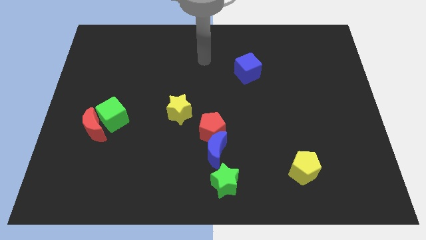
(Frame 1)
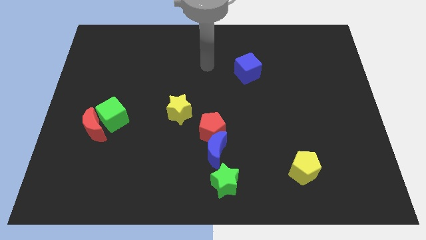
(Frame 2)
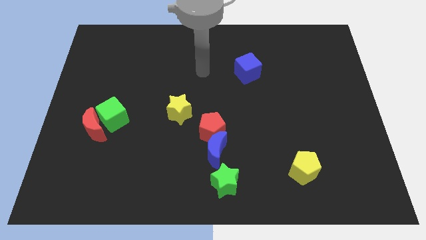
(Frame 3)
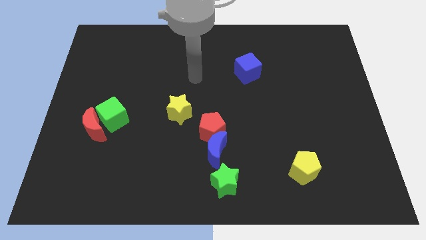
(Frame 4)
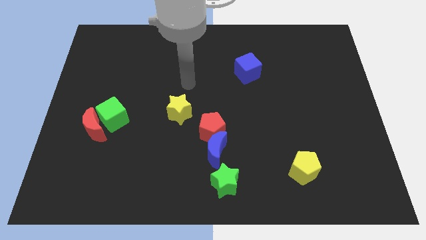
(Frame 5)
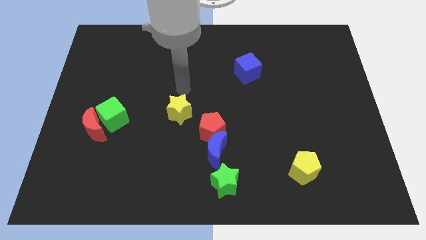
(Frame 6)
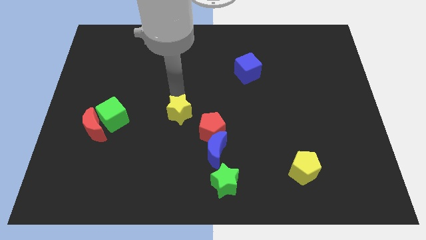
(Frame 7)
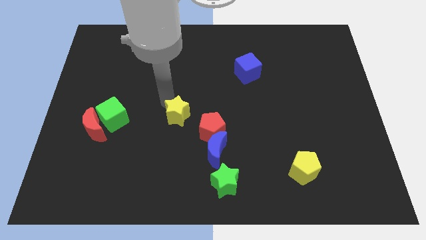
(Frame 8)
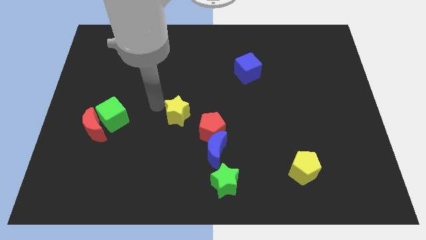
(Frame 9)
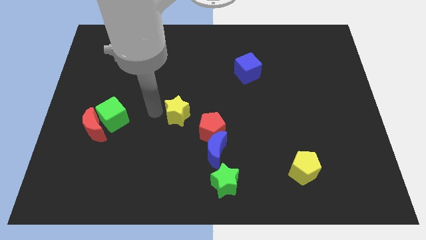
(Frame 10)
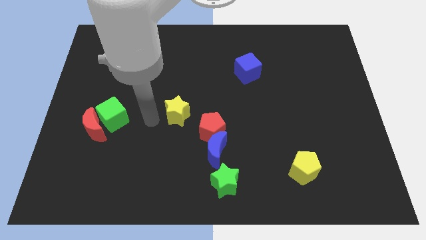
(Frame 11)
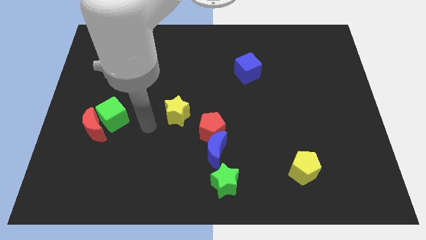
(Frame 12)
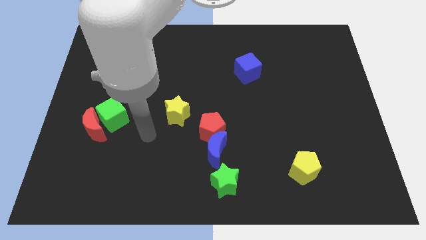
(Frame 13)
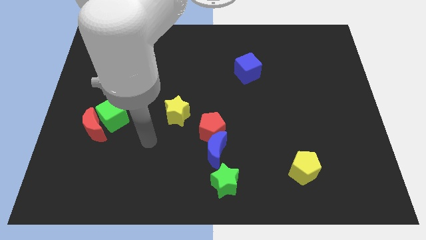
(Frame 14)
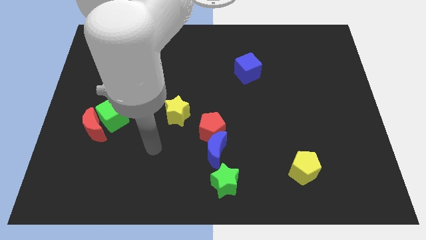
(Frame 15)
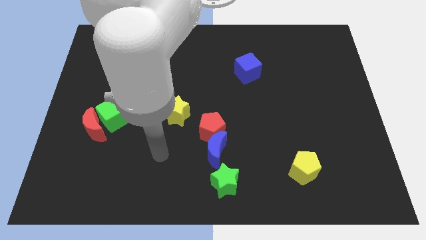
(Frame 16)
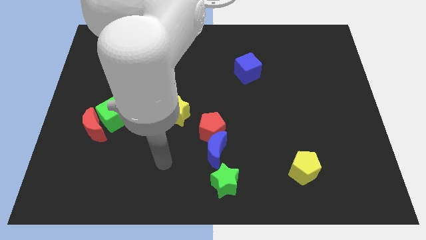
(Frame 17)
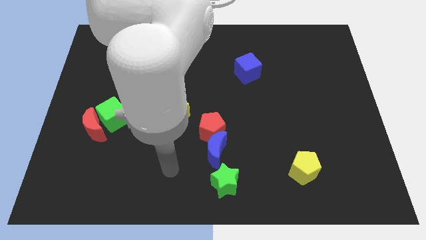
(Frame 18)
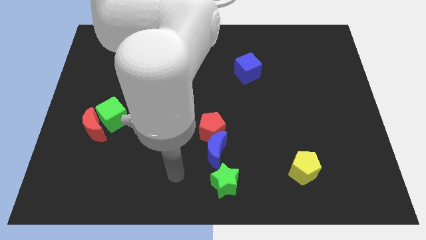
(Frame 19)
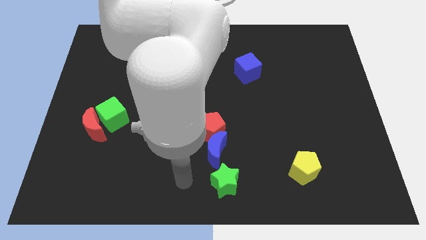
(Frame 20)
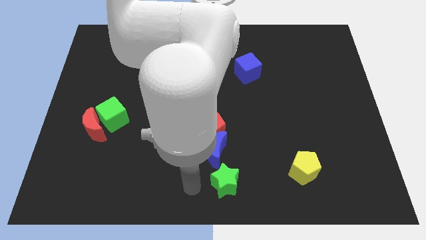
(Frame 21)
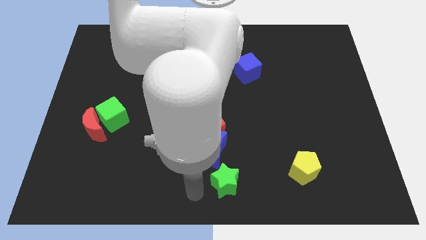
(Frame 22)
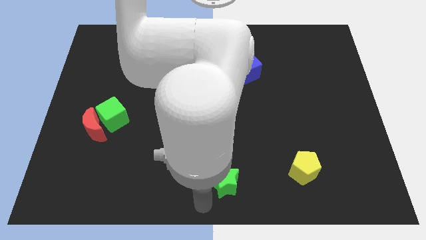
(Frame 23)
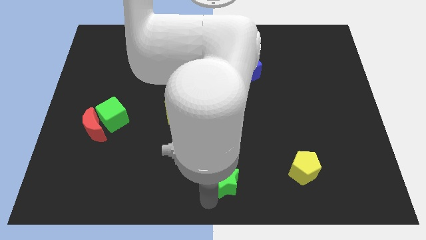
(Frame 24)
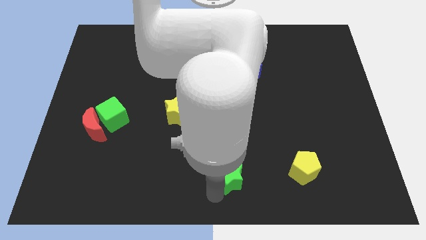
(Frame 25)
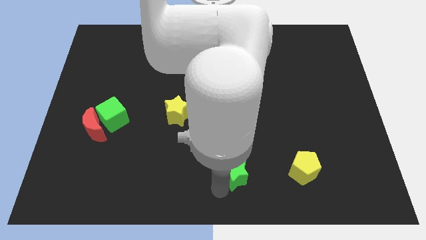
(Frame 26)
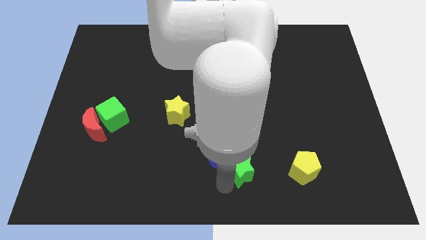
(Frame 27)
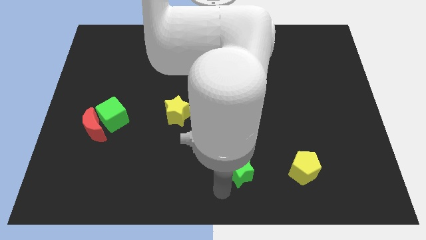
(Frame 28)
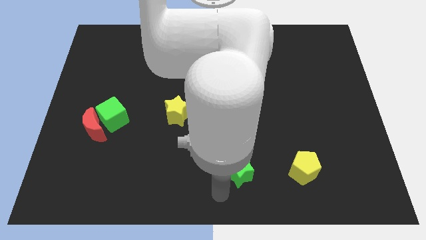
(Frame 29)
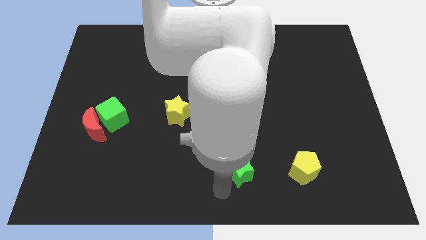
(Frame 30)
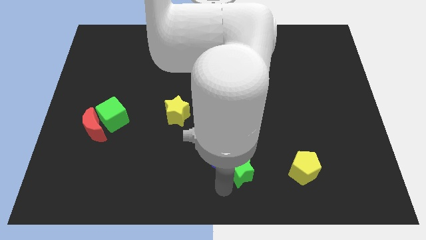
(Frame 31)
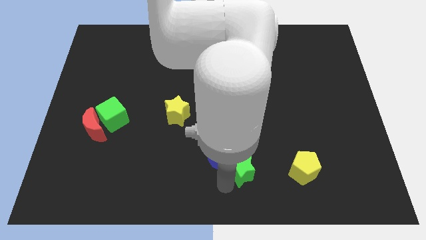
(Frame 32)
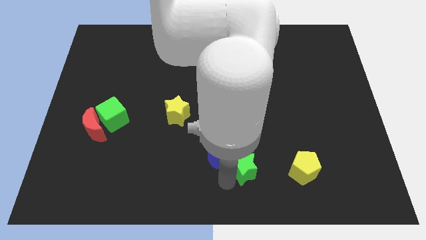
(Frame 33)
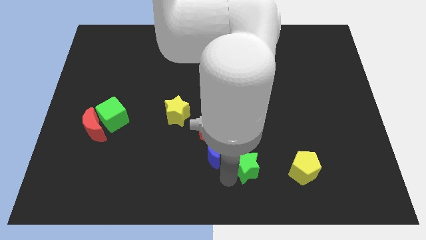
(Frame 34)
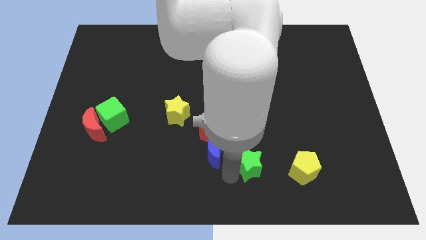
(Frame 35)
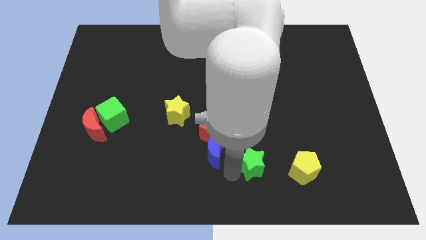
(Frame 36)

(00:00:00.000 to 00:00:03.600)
slightly push the green star upwards and then right

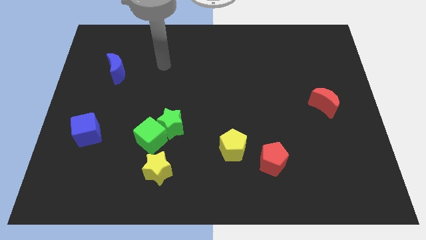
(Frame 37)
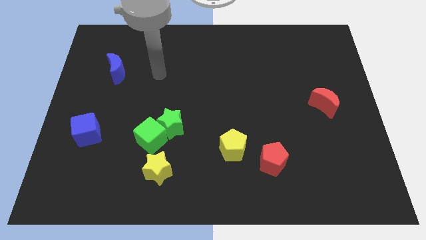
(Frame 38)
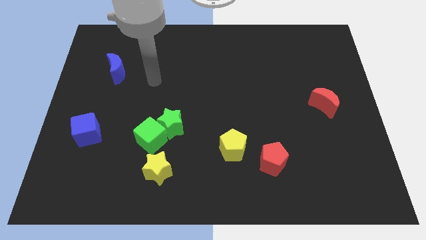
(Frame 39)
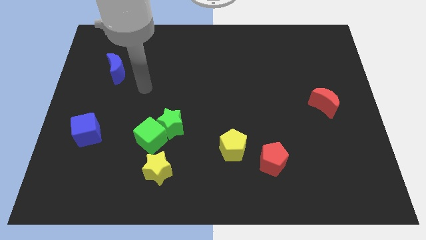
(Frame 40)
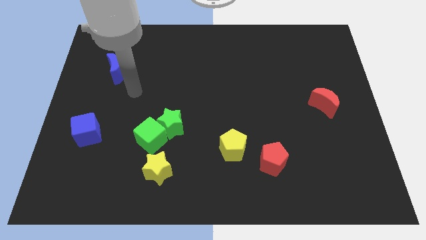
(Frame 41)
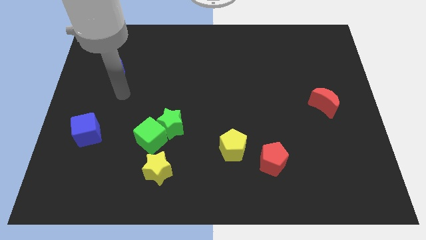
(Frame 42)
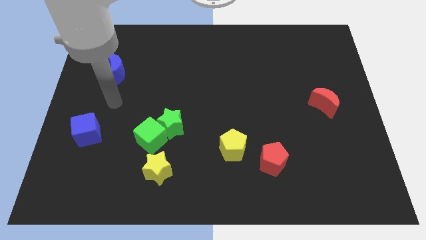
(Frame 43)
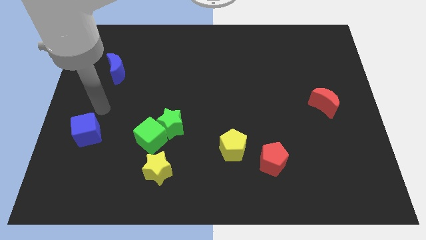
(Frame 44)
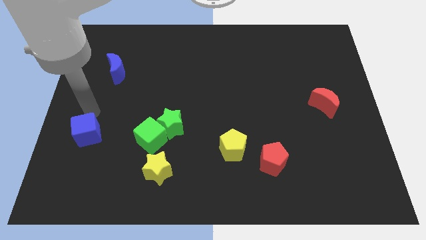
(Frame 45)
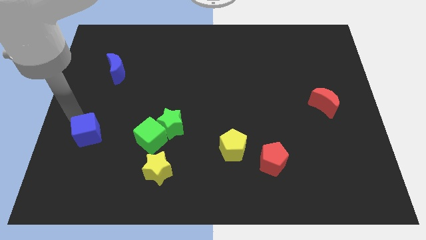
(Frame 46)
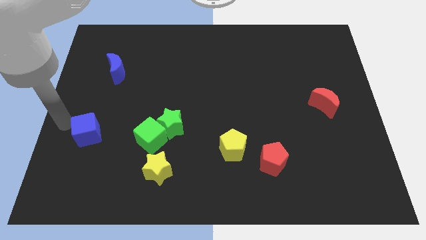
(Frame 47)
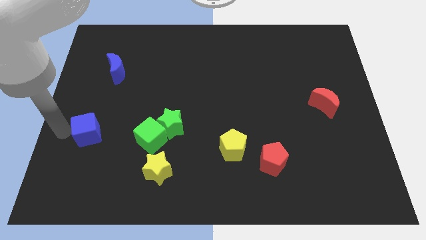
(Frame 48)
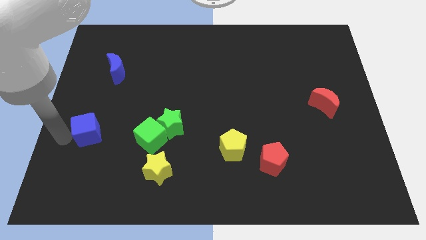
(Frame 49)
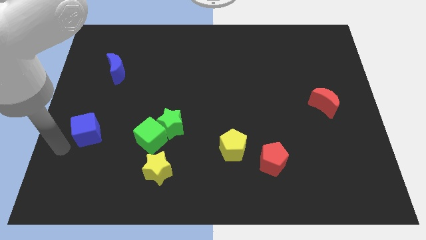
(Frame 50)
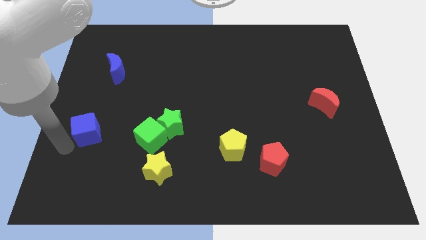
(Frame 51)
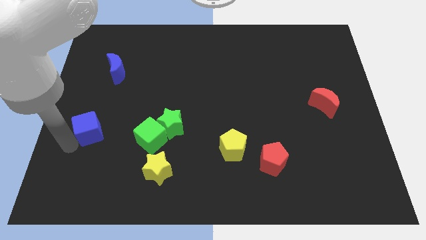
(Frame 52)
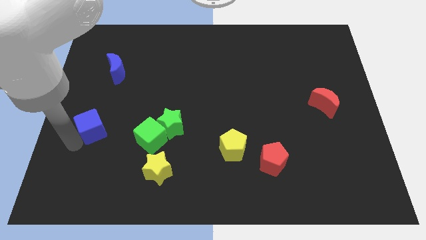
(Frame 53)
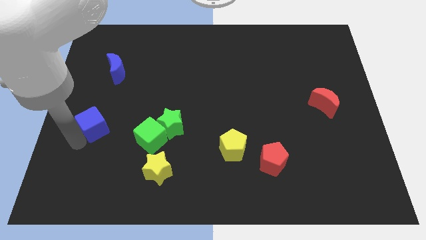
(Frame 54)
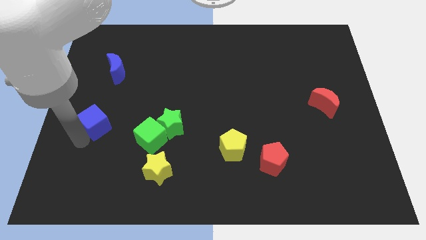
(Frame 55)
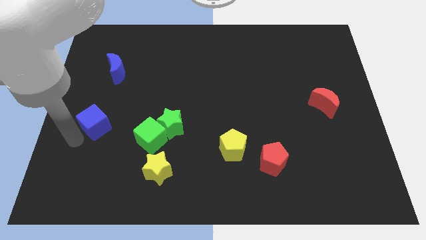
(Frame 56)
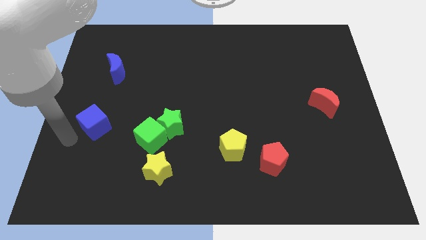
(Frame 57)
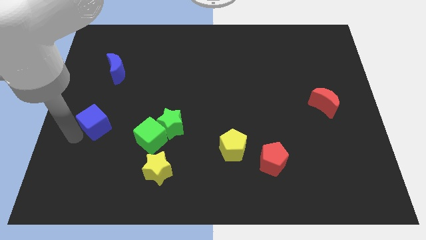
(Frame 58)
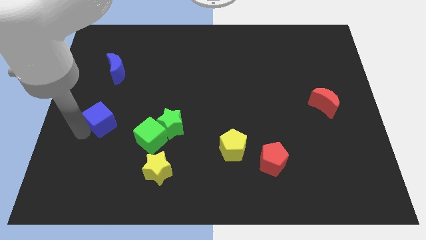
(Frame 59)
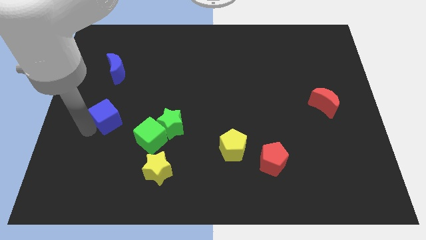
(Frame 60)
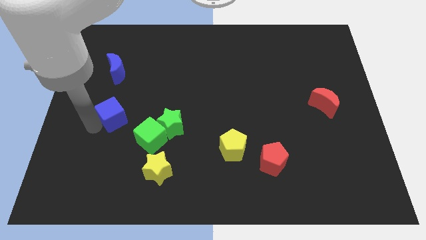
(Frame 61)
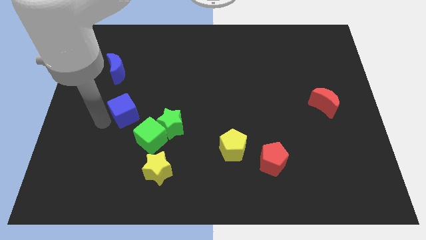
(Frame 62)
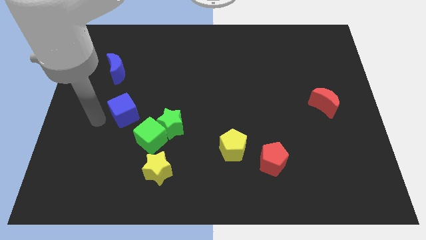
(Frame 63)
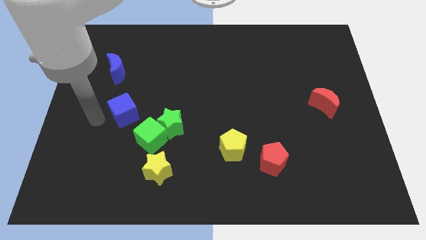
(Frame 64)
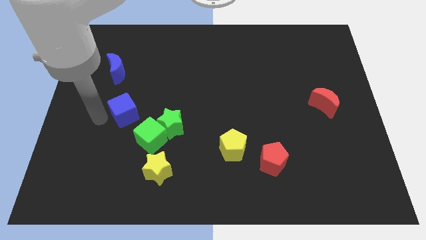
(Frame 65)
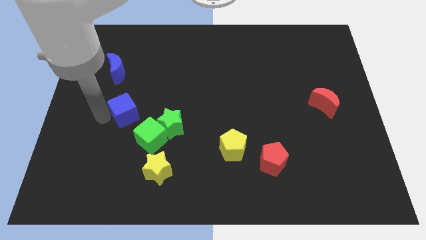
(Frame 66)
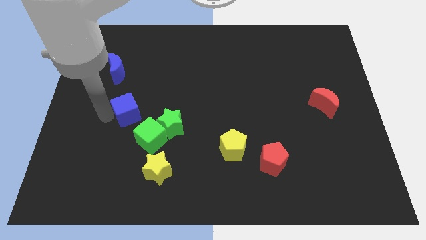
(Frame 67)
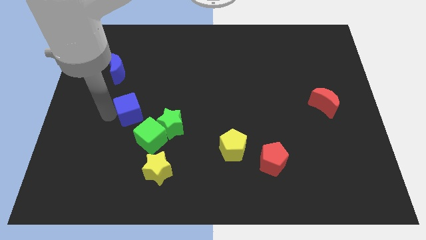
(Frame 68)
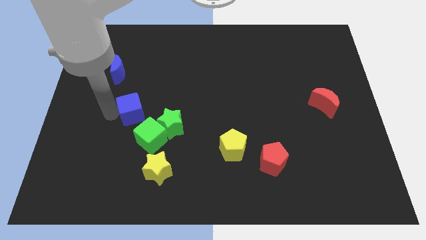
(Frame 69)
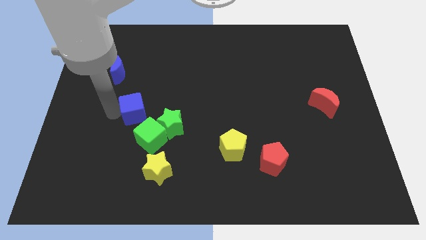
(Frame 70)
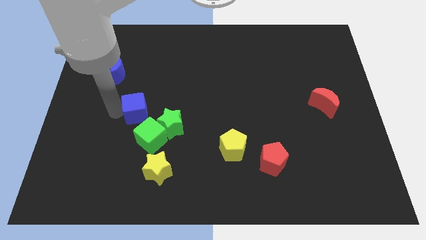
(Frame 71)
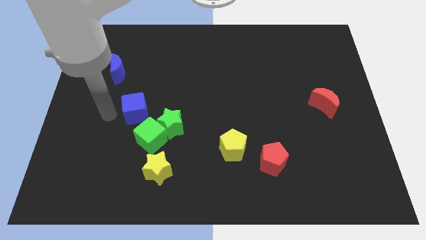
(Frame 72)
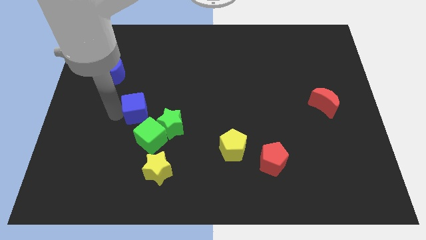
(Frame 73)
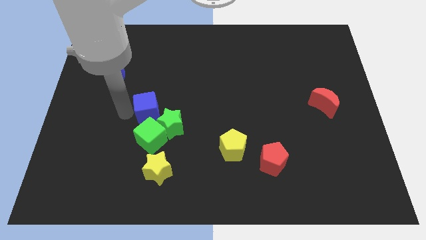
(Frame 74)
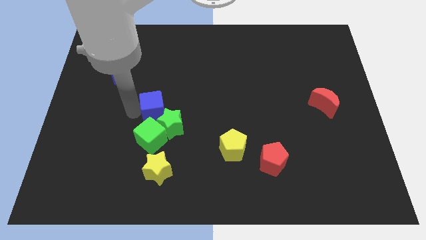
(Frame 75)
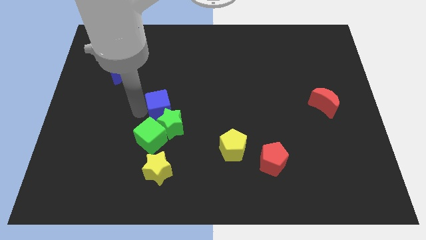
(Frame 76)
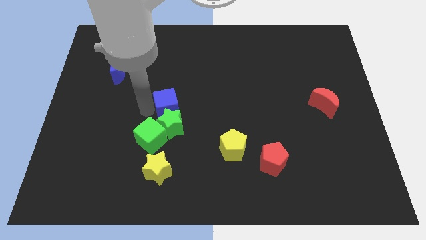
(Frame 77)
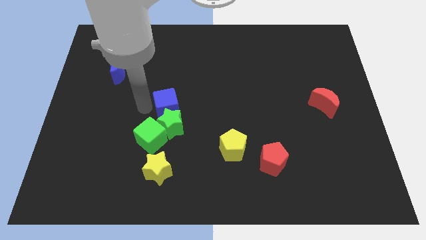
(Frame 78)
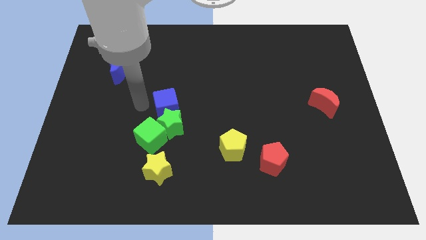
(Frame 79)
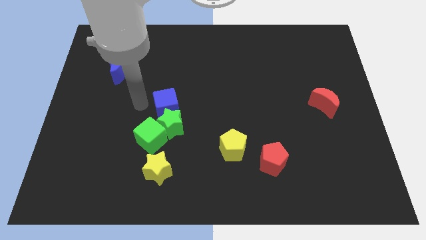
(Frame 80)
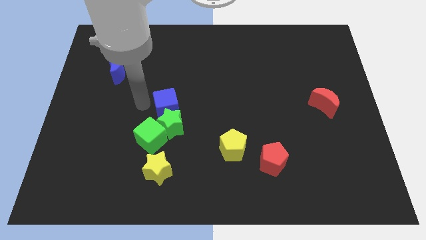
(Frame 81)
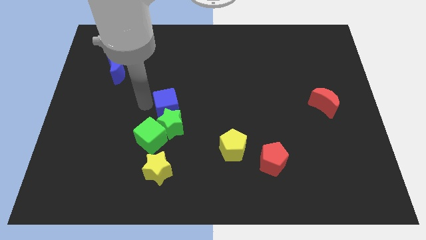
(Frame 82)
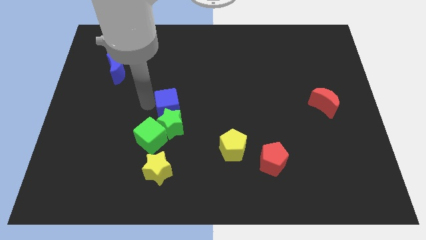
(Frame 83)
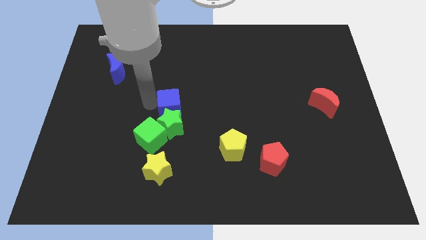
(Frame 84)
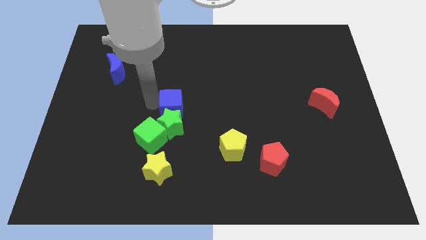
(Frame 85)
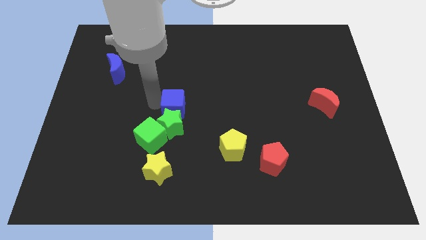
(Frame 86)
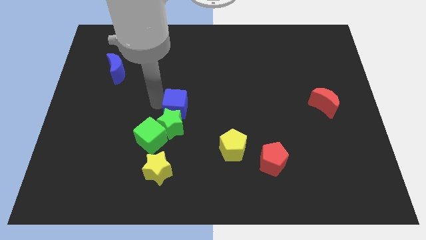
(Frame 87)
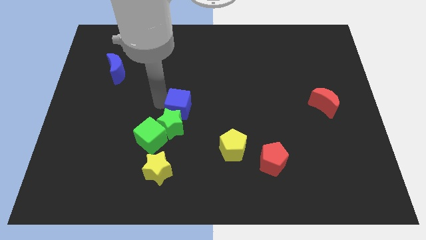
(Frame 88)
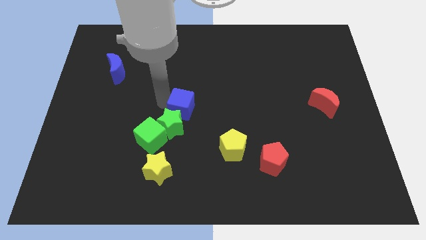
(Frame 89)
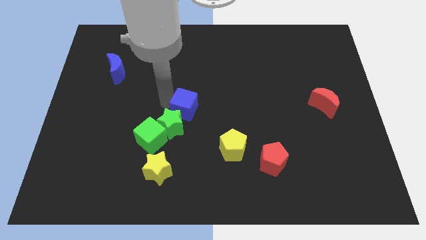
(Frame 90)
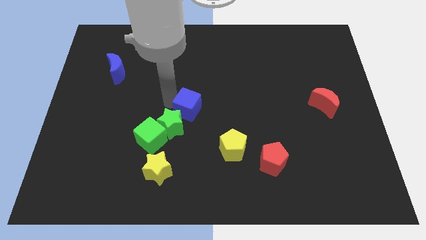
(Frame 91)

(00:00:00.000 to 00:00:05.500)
slide the blue cube to the right
